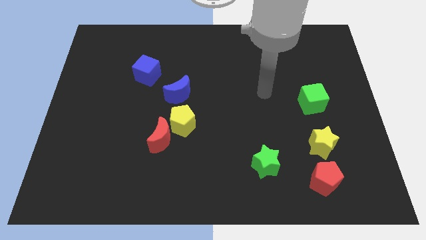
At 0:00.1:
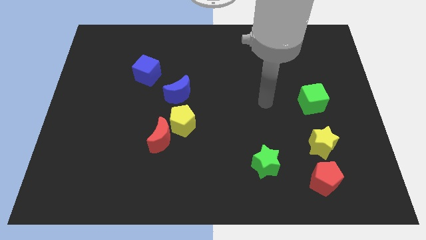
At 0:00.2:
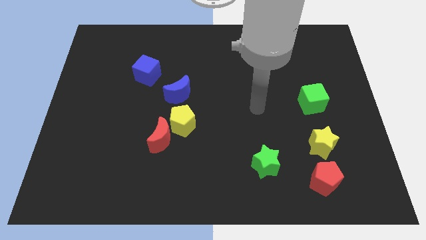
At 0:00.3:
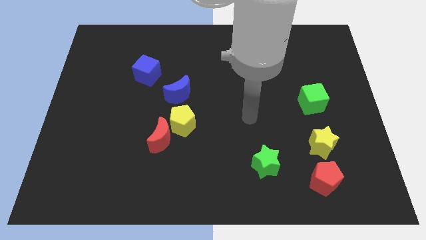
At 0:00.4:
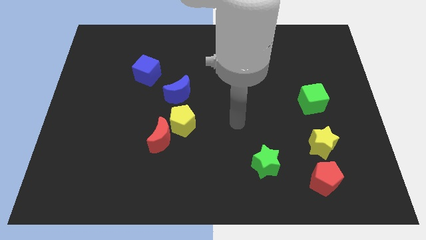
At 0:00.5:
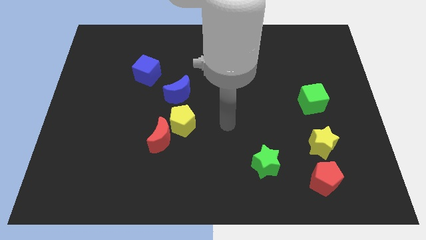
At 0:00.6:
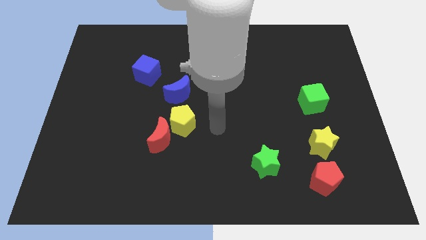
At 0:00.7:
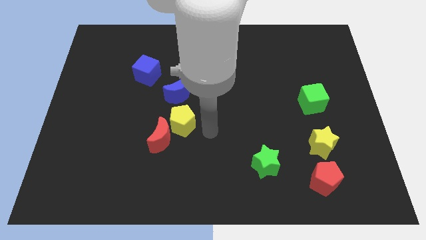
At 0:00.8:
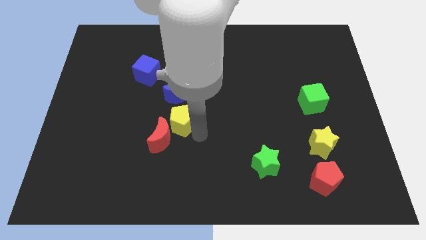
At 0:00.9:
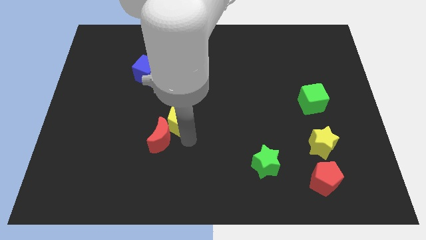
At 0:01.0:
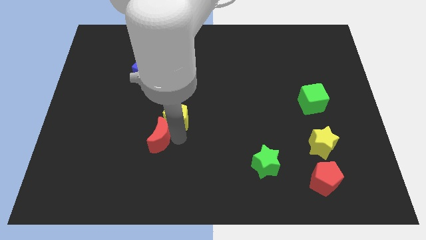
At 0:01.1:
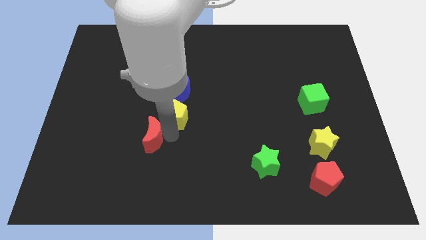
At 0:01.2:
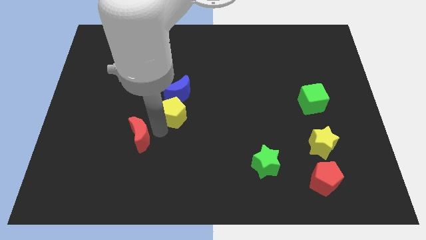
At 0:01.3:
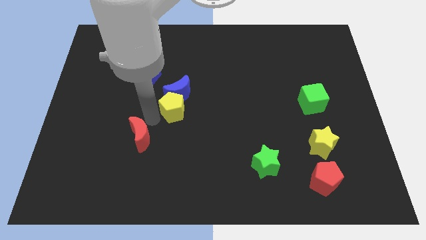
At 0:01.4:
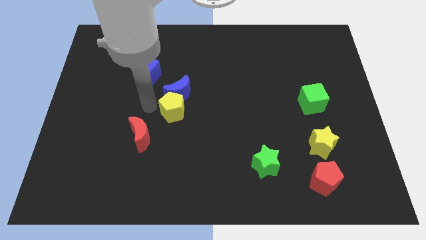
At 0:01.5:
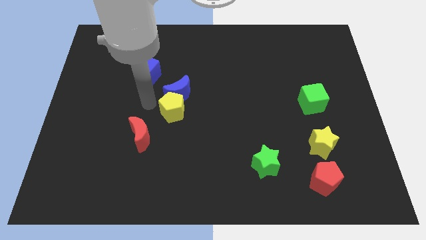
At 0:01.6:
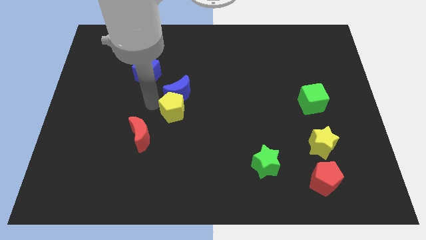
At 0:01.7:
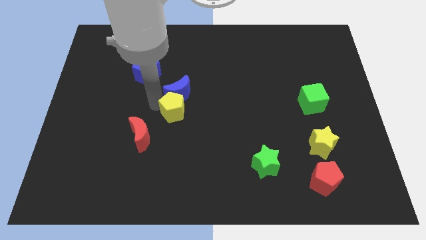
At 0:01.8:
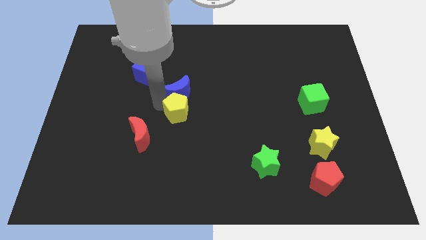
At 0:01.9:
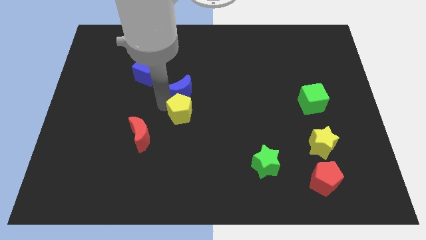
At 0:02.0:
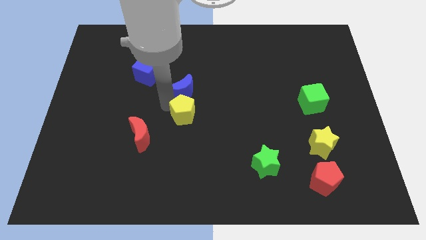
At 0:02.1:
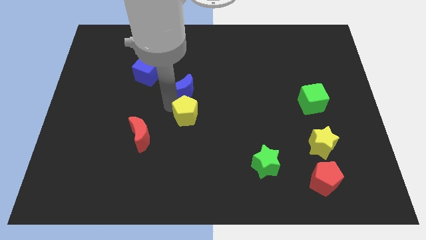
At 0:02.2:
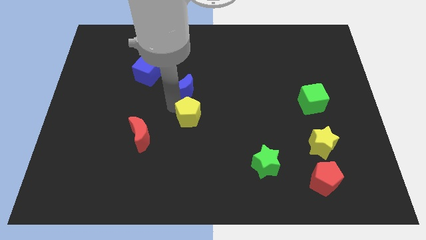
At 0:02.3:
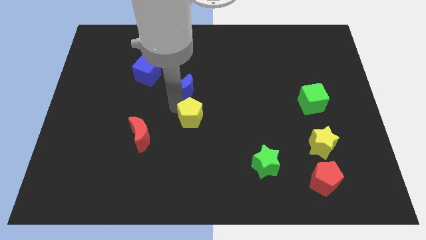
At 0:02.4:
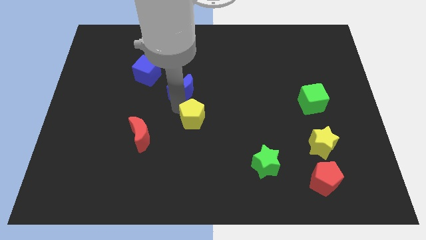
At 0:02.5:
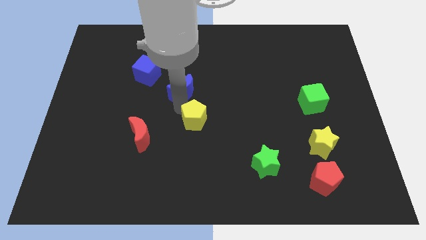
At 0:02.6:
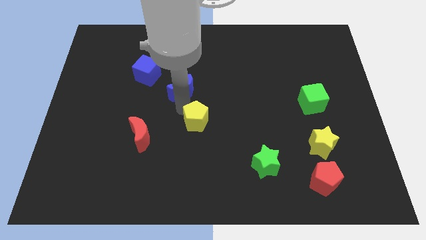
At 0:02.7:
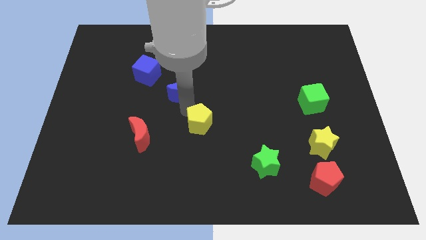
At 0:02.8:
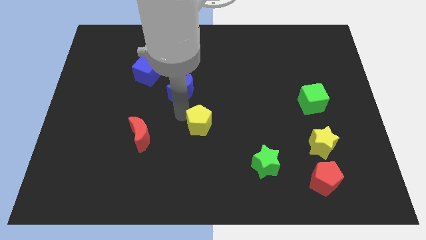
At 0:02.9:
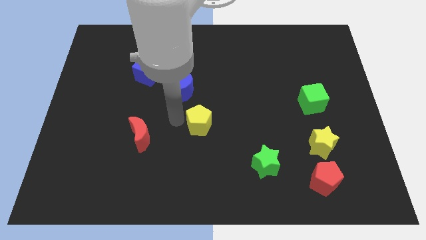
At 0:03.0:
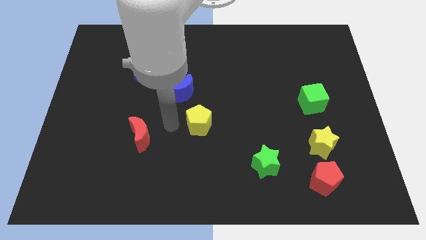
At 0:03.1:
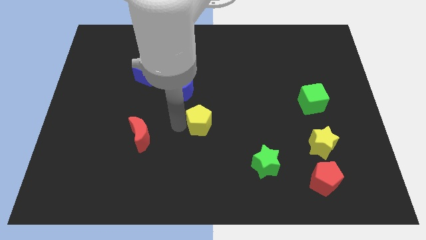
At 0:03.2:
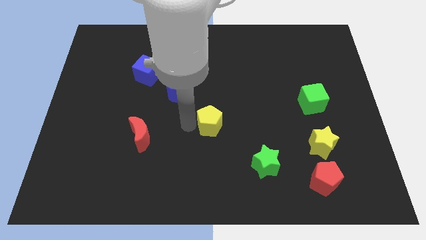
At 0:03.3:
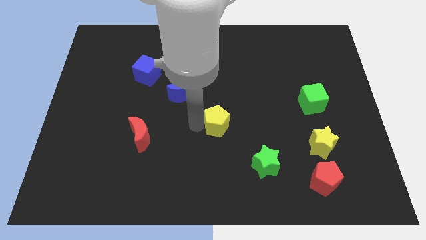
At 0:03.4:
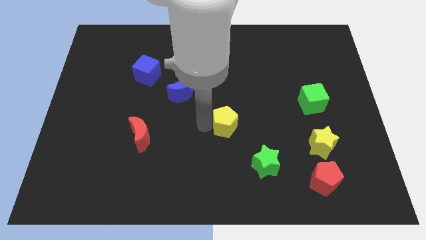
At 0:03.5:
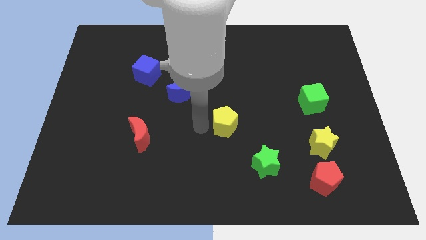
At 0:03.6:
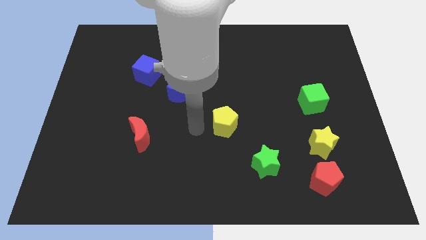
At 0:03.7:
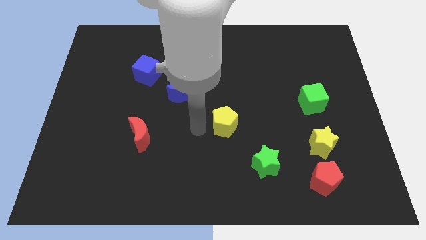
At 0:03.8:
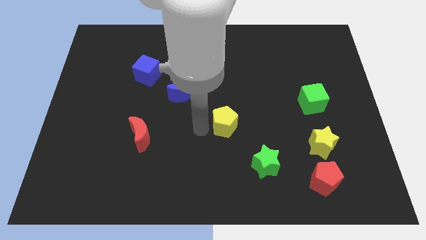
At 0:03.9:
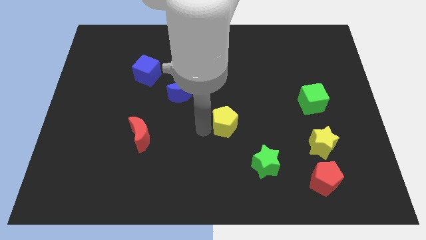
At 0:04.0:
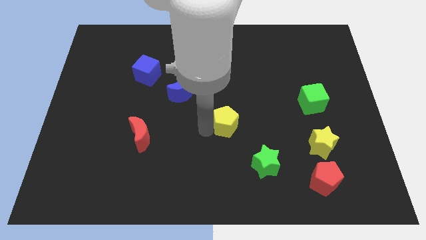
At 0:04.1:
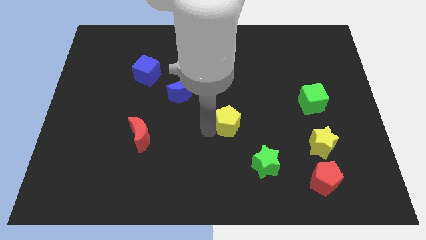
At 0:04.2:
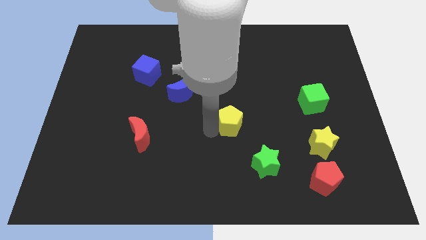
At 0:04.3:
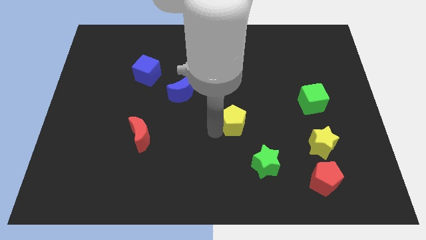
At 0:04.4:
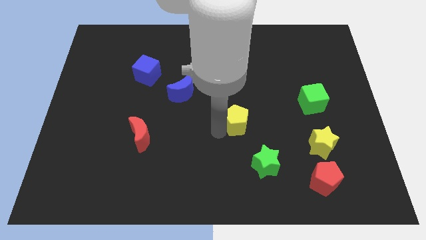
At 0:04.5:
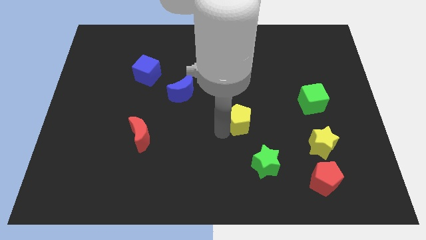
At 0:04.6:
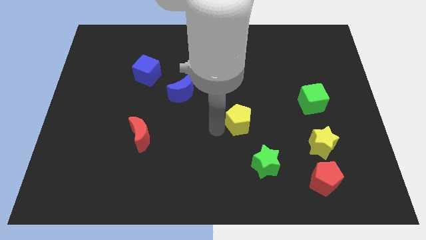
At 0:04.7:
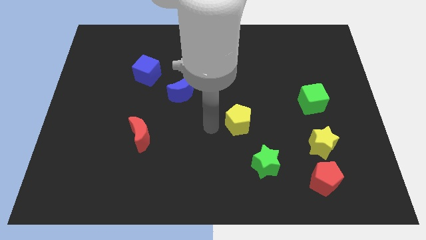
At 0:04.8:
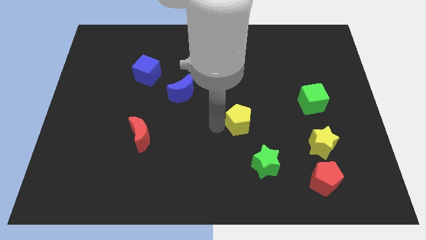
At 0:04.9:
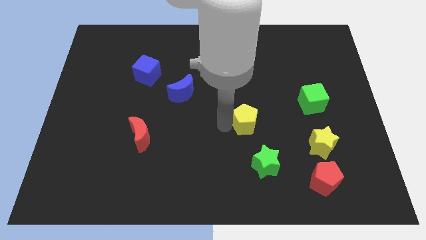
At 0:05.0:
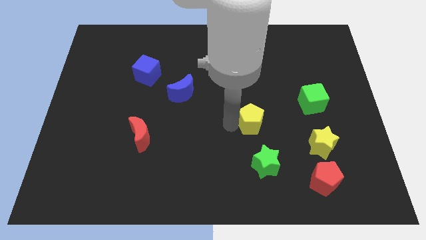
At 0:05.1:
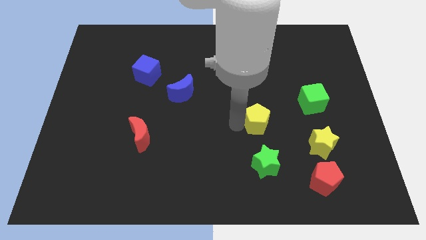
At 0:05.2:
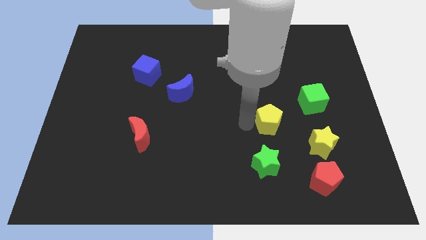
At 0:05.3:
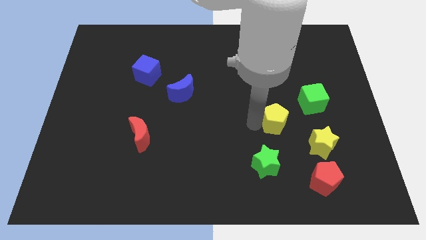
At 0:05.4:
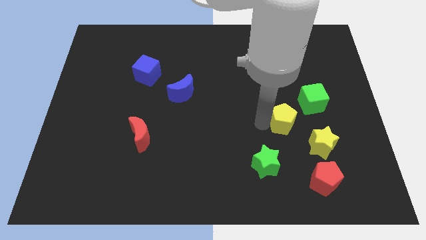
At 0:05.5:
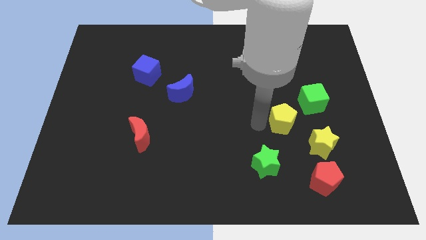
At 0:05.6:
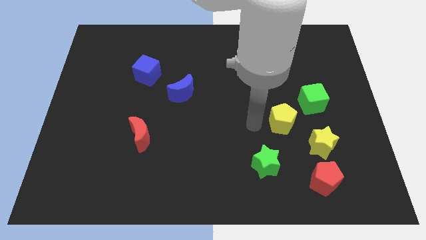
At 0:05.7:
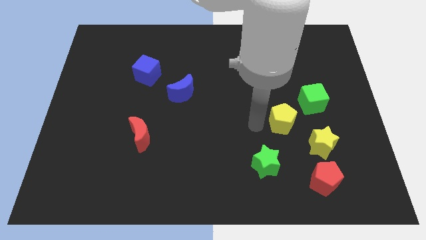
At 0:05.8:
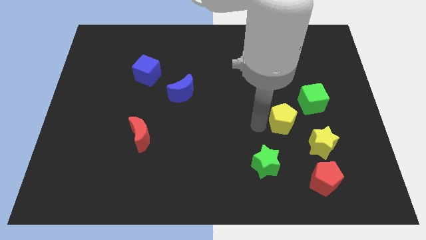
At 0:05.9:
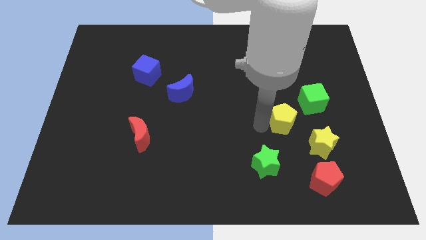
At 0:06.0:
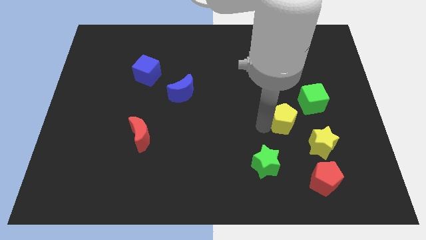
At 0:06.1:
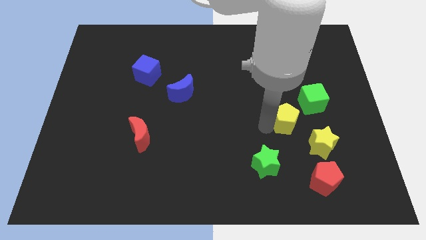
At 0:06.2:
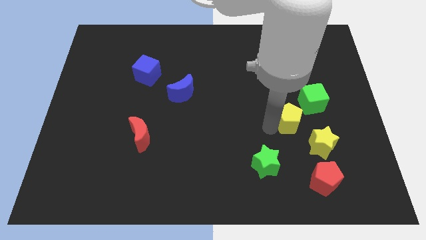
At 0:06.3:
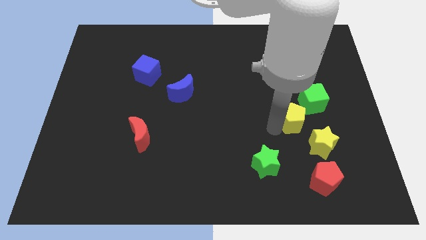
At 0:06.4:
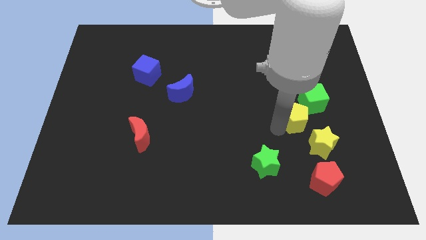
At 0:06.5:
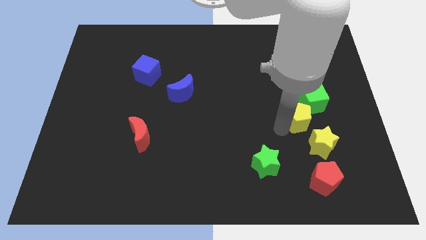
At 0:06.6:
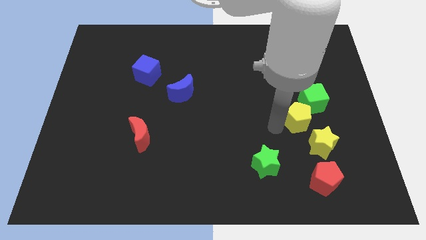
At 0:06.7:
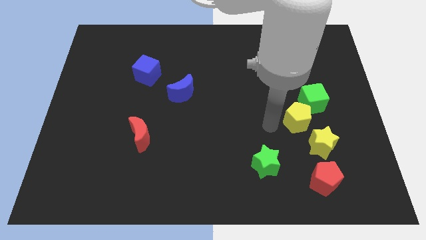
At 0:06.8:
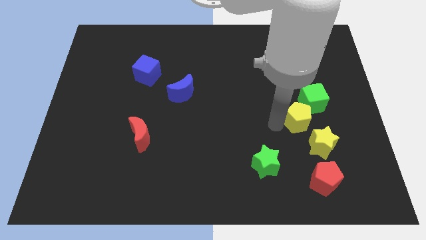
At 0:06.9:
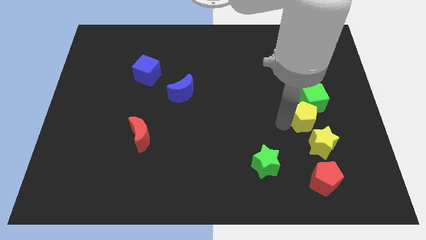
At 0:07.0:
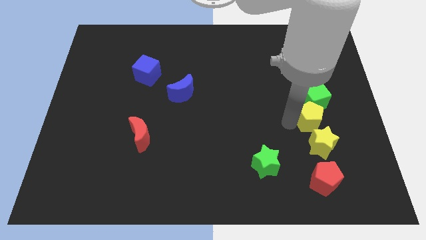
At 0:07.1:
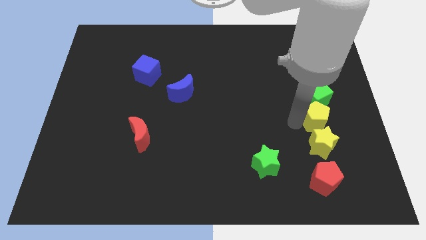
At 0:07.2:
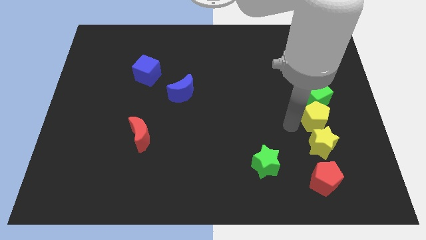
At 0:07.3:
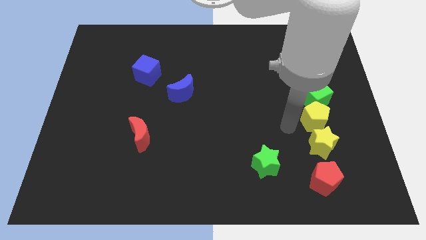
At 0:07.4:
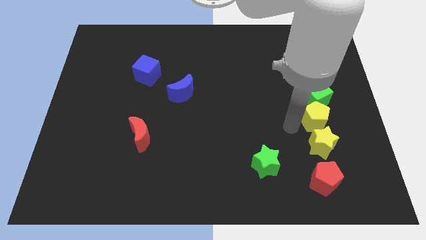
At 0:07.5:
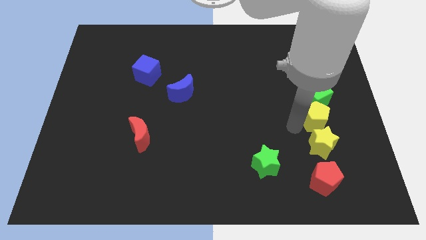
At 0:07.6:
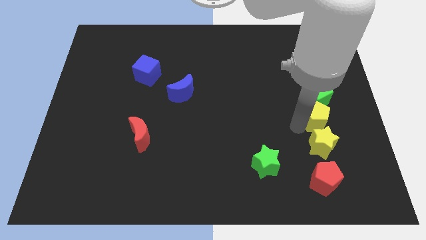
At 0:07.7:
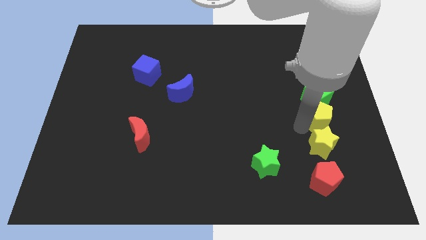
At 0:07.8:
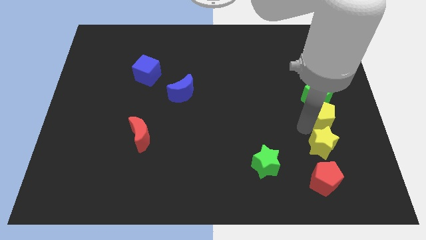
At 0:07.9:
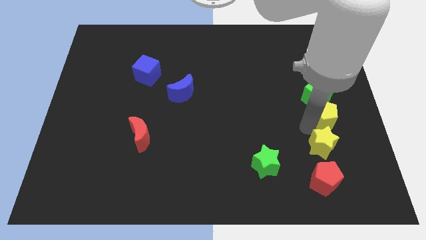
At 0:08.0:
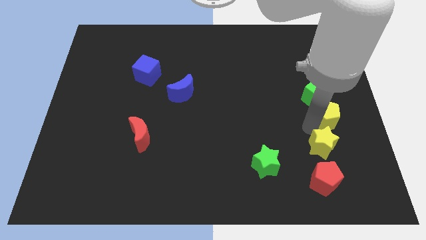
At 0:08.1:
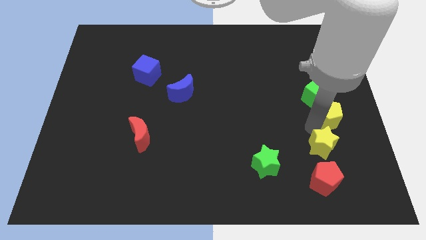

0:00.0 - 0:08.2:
push the yellow pentagon to the right side of the board
